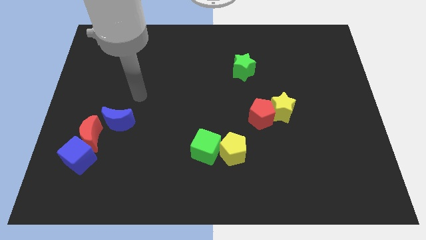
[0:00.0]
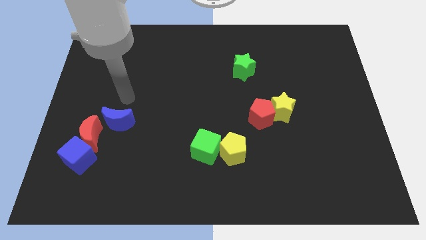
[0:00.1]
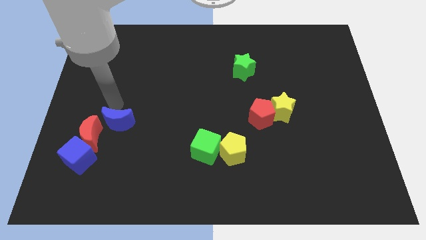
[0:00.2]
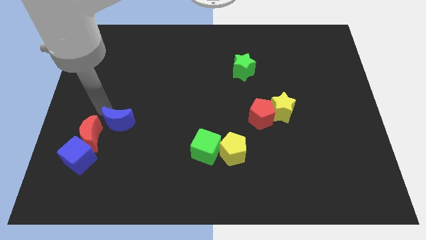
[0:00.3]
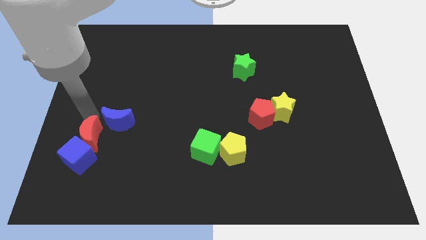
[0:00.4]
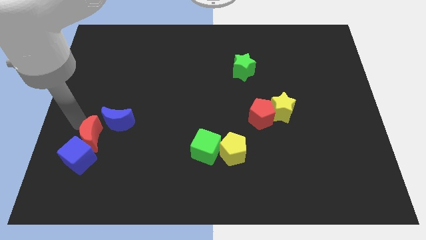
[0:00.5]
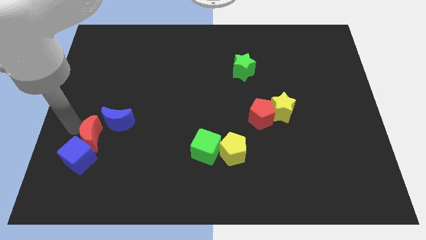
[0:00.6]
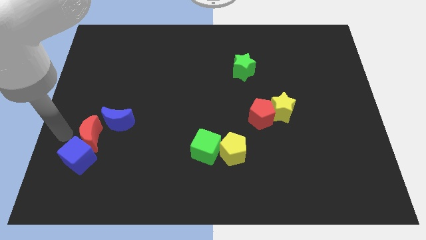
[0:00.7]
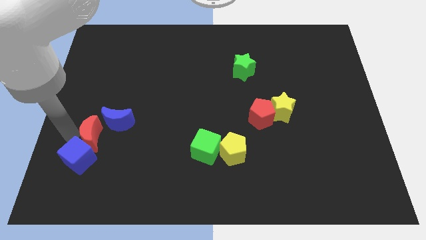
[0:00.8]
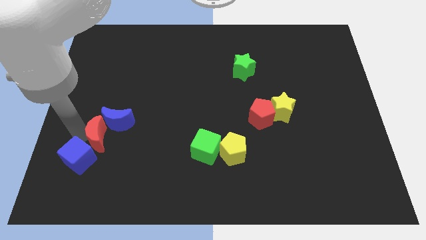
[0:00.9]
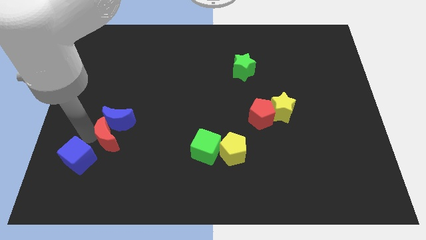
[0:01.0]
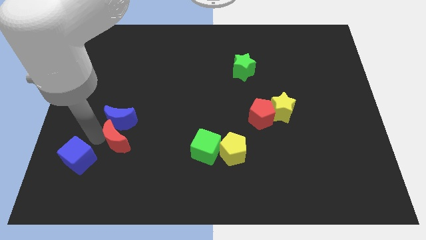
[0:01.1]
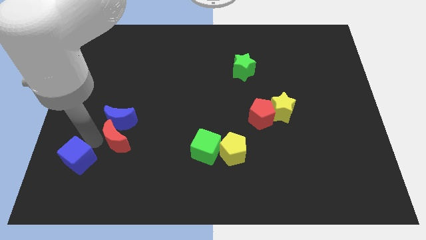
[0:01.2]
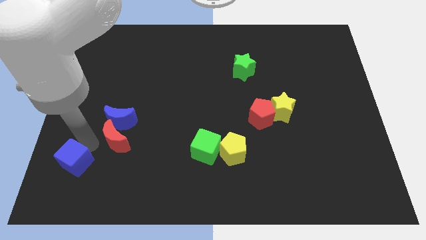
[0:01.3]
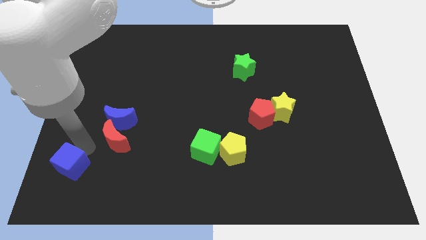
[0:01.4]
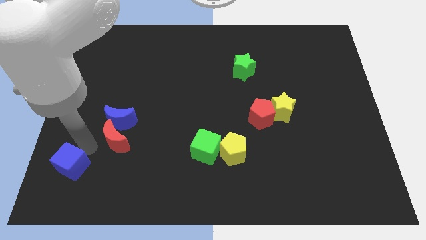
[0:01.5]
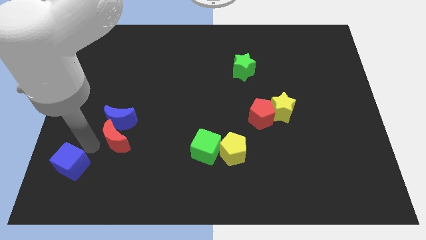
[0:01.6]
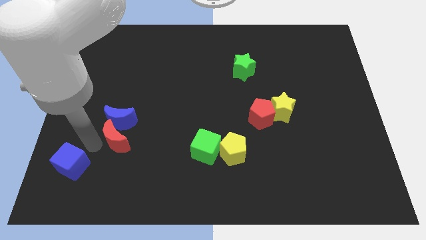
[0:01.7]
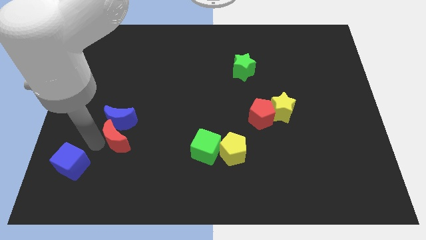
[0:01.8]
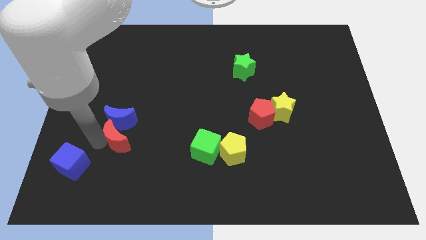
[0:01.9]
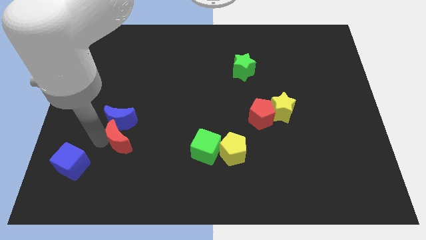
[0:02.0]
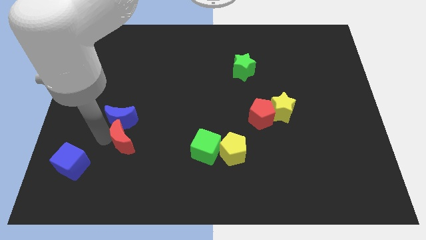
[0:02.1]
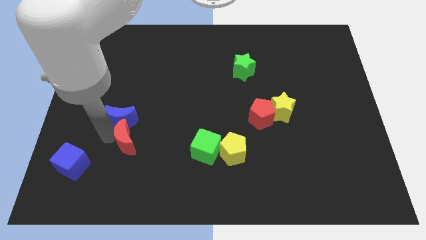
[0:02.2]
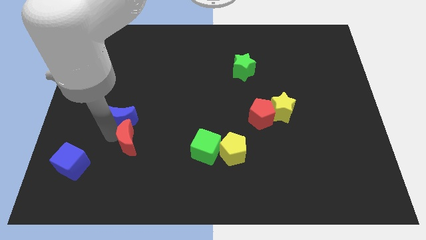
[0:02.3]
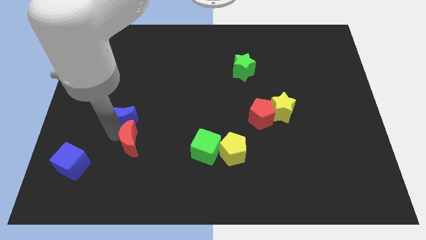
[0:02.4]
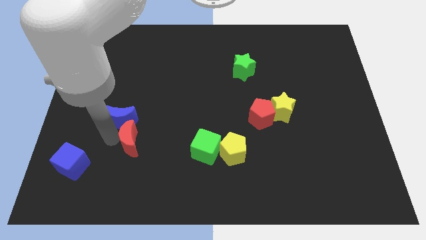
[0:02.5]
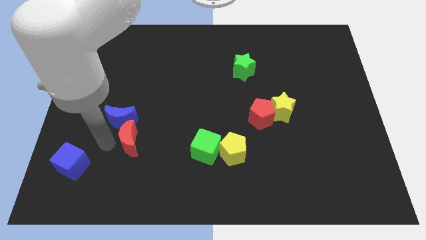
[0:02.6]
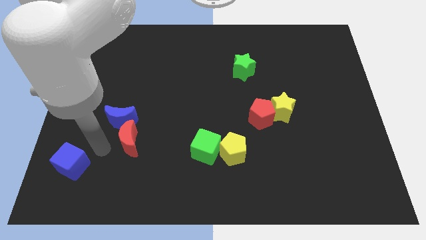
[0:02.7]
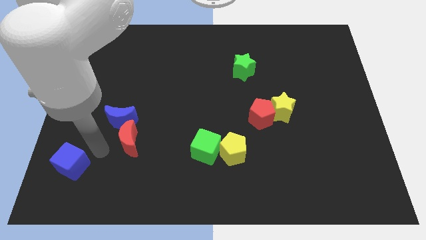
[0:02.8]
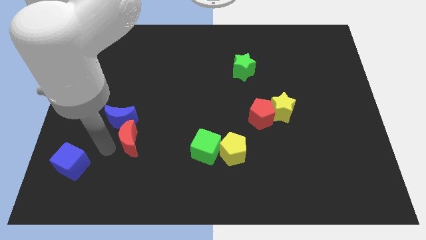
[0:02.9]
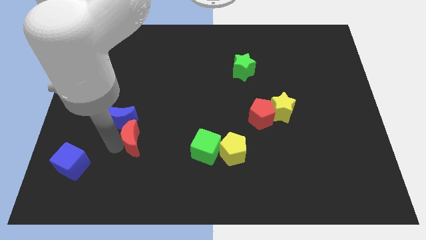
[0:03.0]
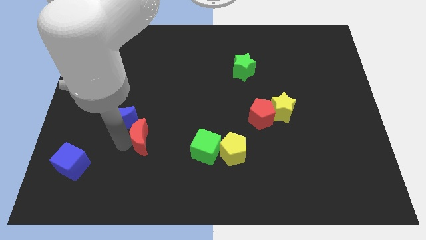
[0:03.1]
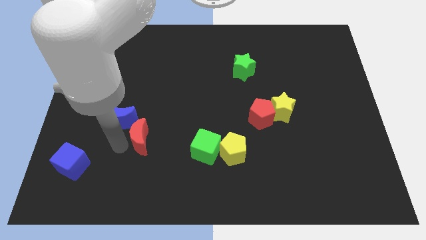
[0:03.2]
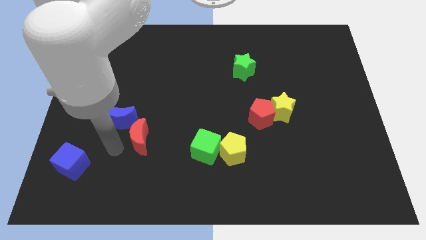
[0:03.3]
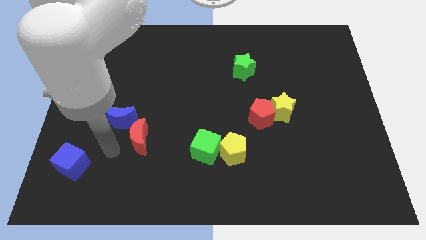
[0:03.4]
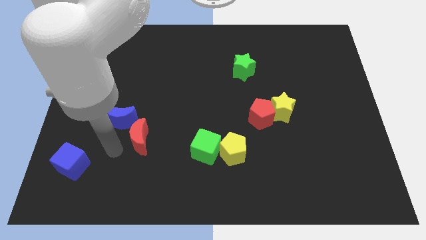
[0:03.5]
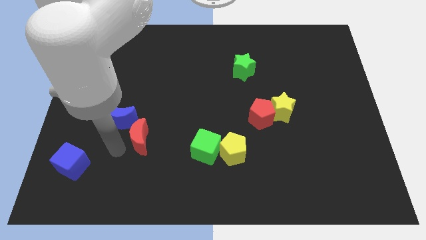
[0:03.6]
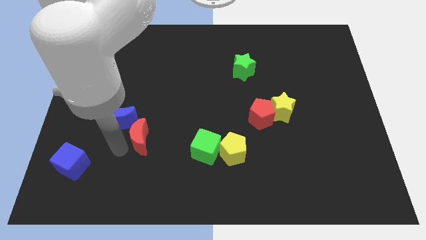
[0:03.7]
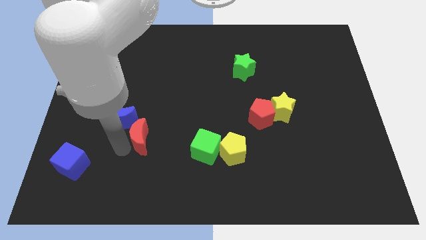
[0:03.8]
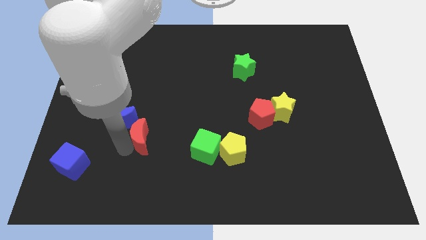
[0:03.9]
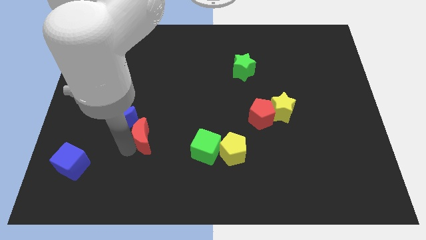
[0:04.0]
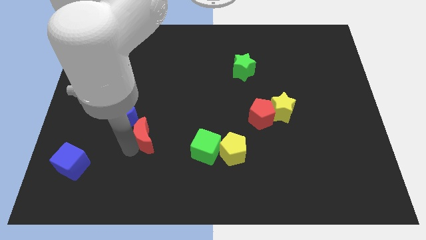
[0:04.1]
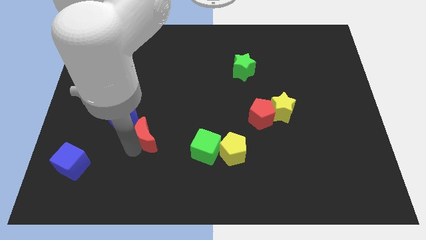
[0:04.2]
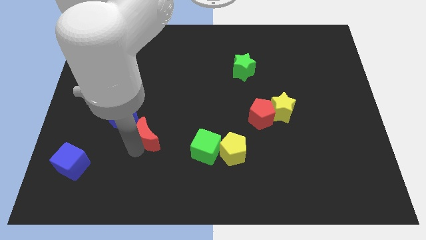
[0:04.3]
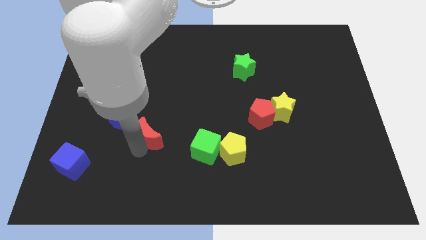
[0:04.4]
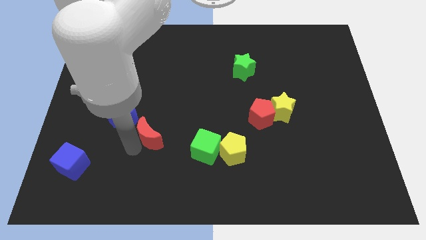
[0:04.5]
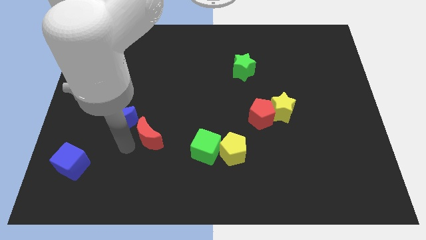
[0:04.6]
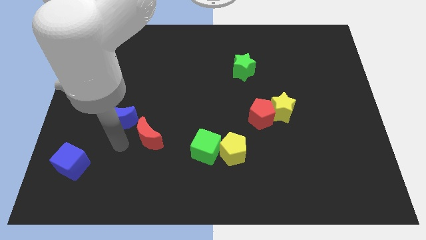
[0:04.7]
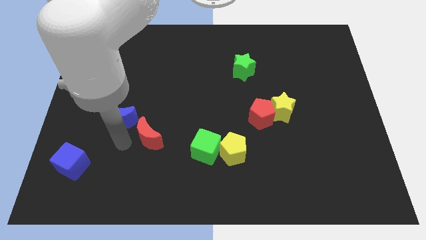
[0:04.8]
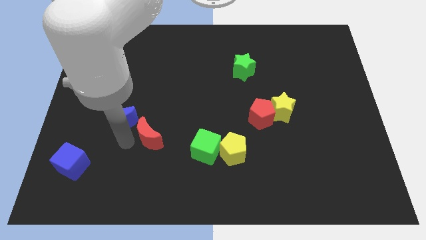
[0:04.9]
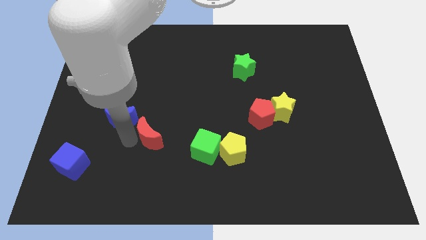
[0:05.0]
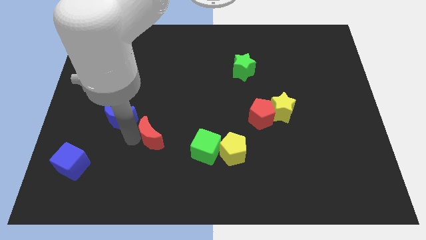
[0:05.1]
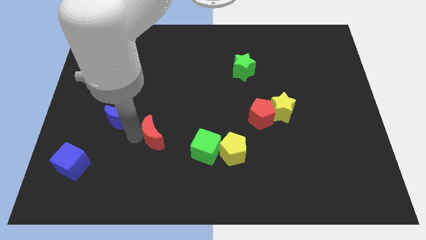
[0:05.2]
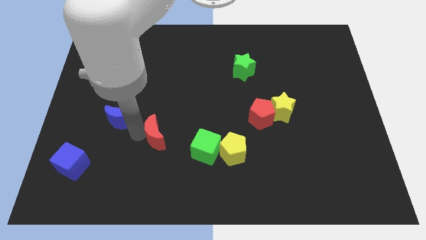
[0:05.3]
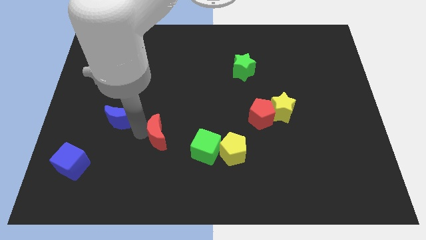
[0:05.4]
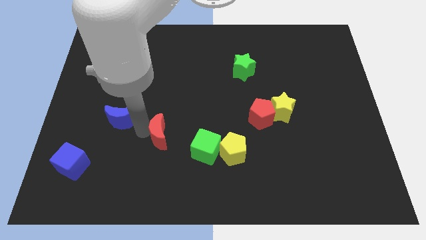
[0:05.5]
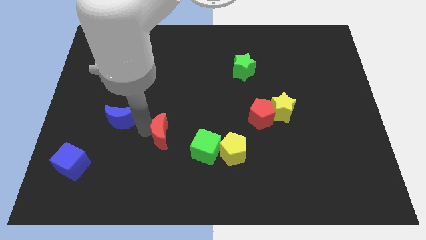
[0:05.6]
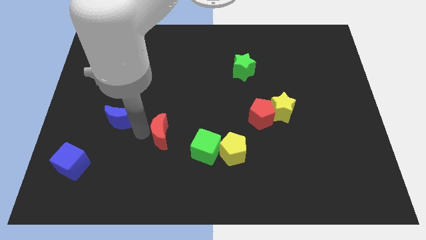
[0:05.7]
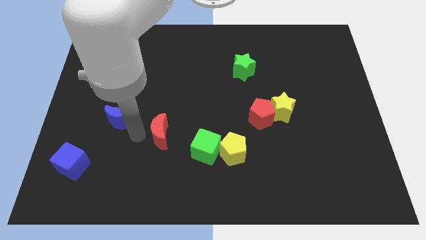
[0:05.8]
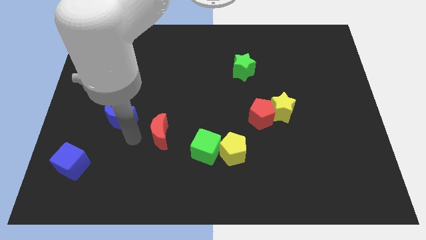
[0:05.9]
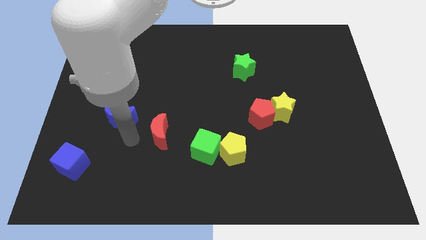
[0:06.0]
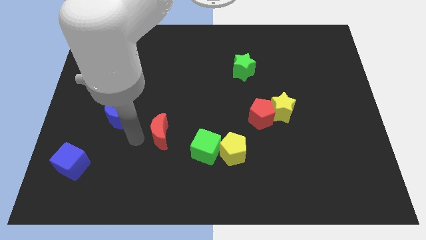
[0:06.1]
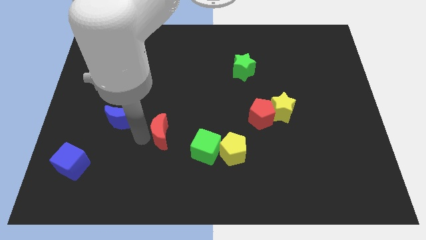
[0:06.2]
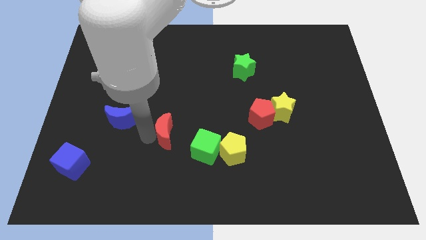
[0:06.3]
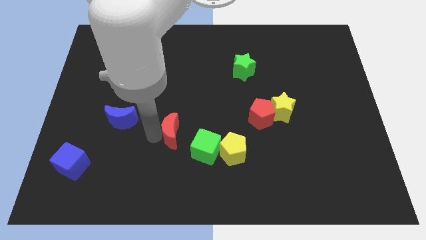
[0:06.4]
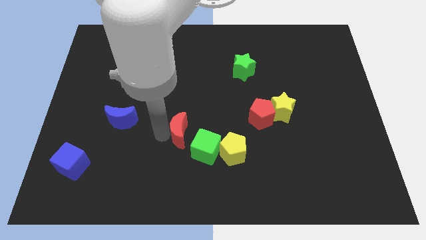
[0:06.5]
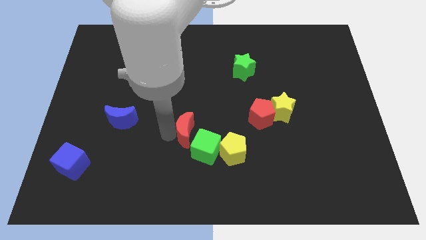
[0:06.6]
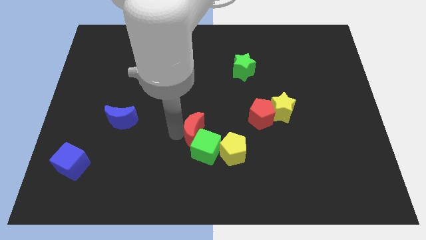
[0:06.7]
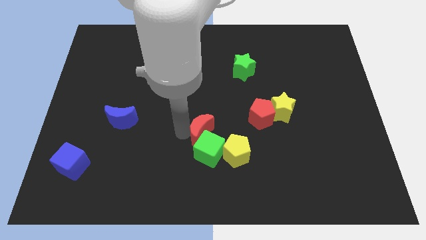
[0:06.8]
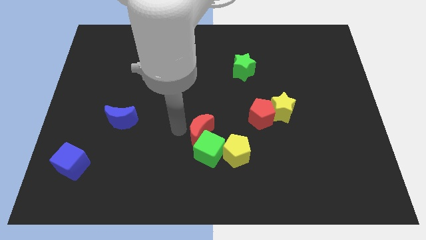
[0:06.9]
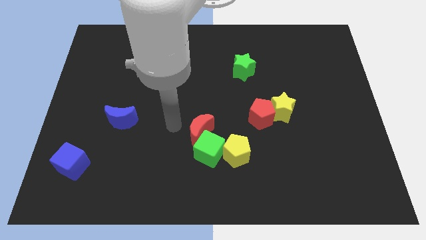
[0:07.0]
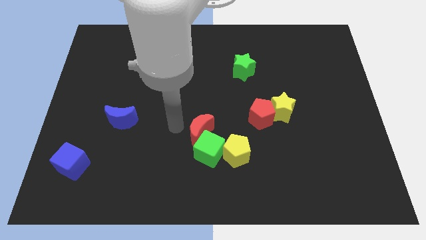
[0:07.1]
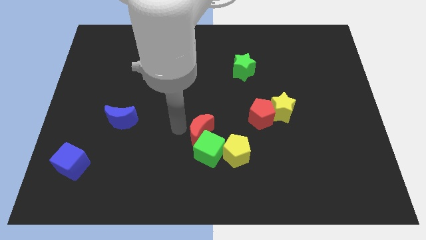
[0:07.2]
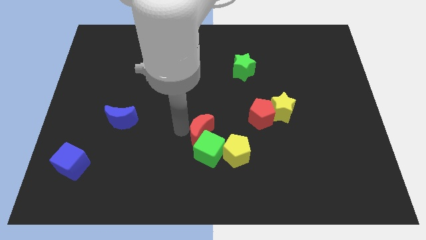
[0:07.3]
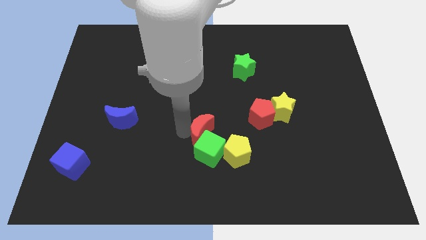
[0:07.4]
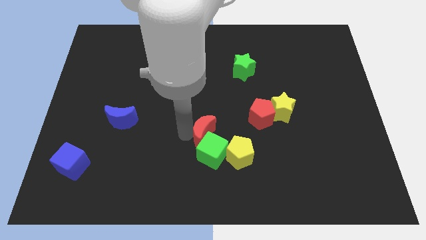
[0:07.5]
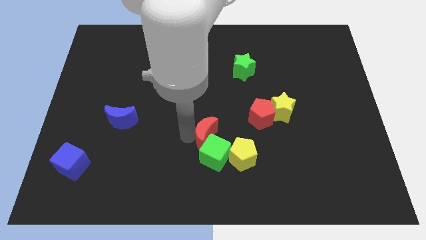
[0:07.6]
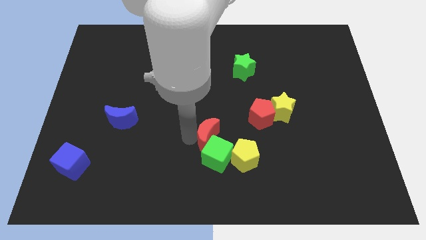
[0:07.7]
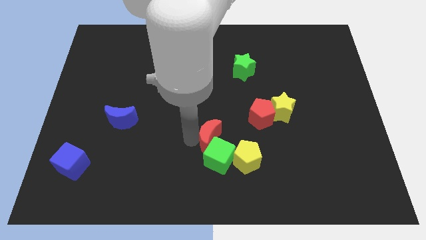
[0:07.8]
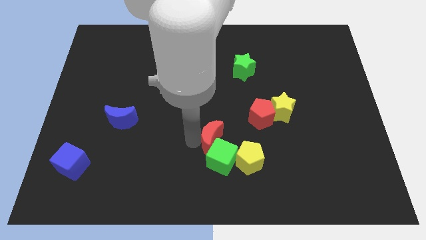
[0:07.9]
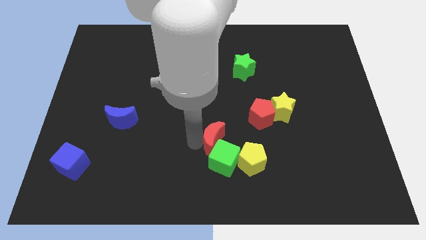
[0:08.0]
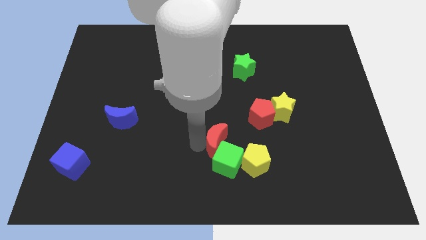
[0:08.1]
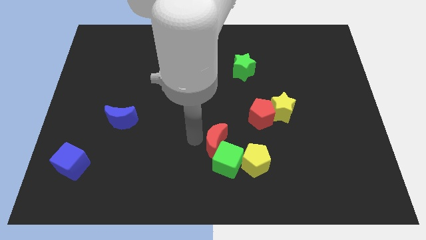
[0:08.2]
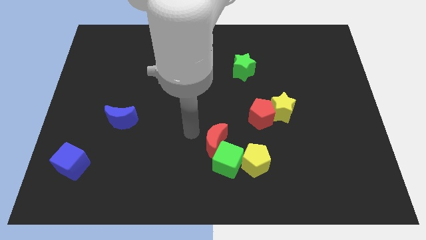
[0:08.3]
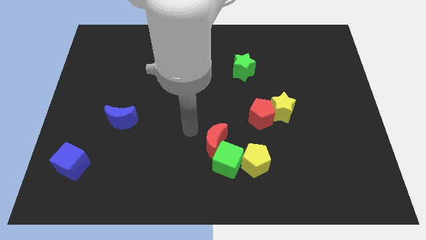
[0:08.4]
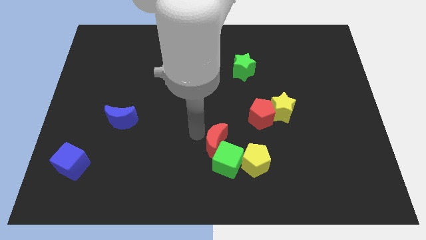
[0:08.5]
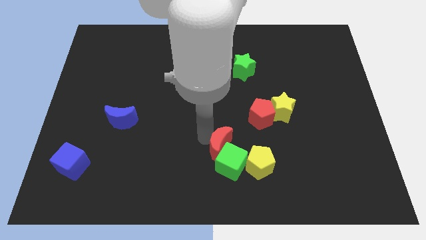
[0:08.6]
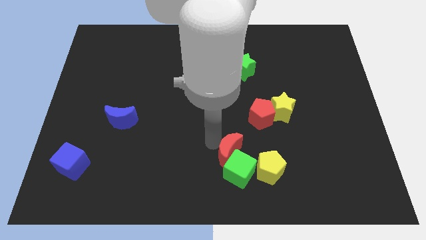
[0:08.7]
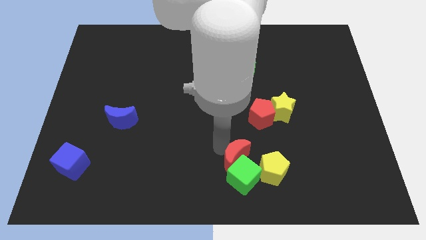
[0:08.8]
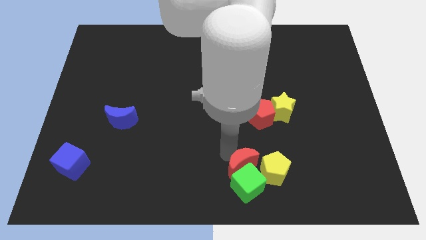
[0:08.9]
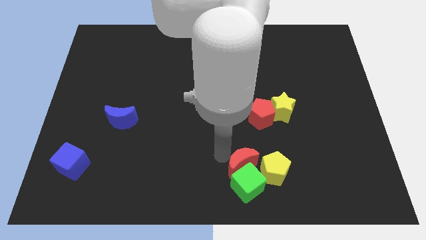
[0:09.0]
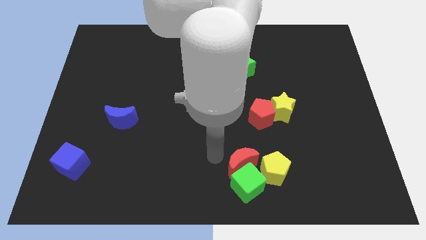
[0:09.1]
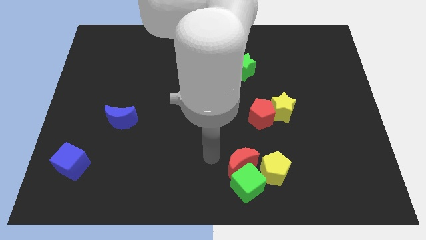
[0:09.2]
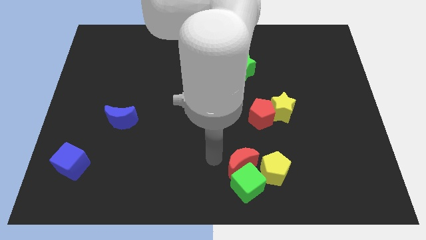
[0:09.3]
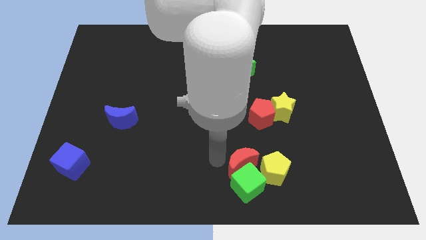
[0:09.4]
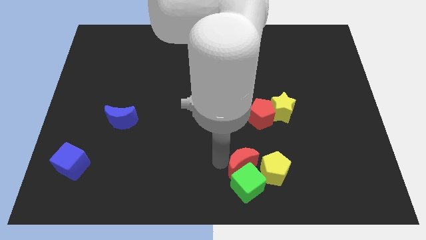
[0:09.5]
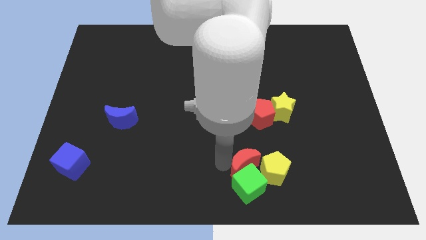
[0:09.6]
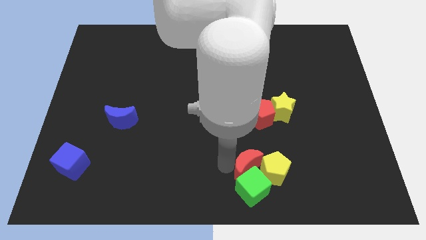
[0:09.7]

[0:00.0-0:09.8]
slide the red moon towards the yellow pentagon
